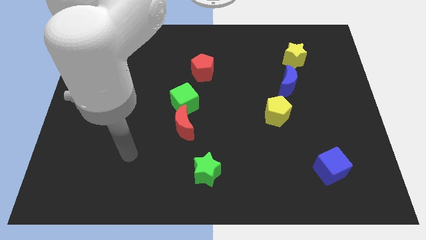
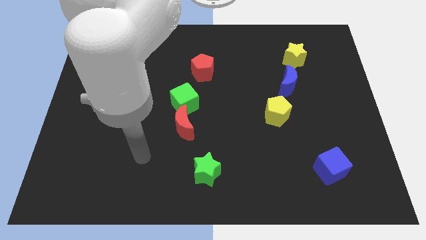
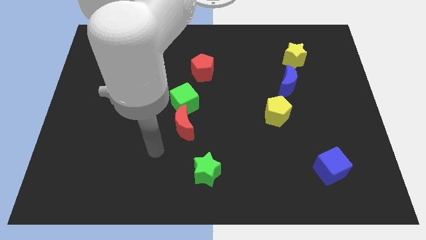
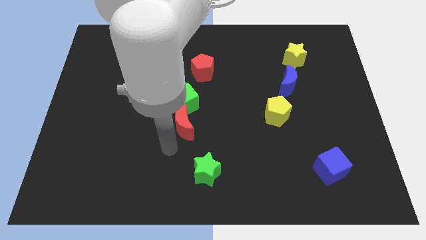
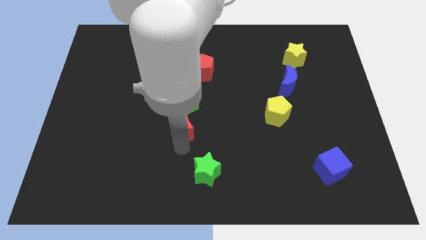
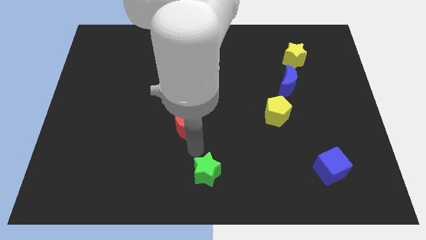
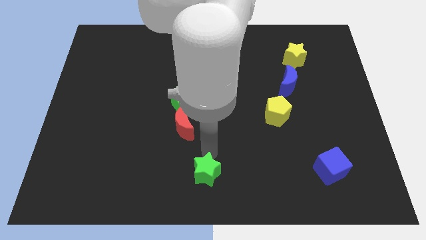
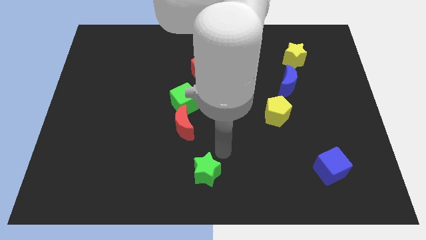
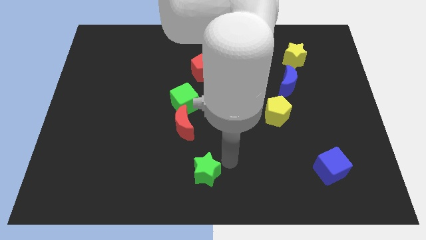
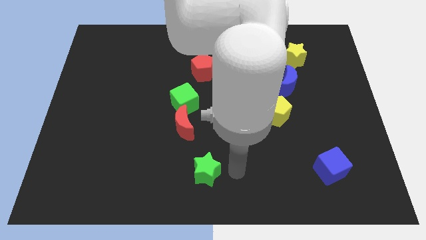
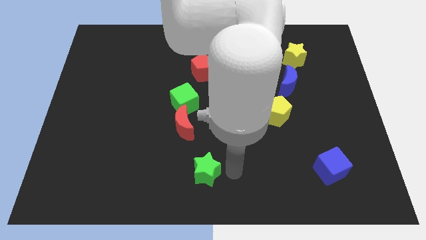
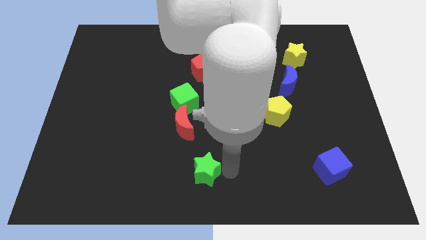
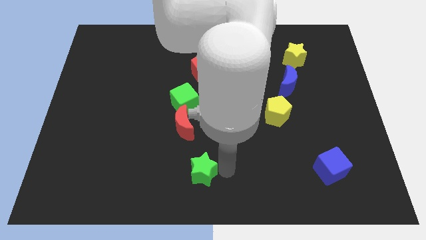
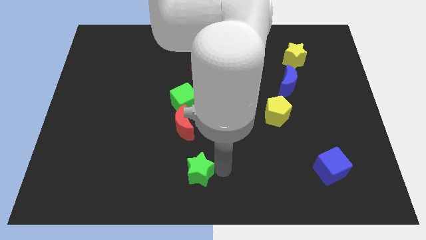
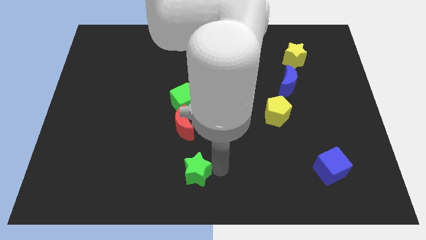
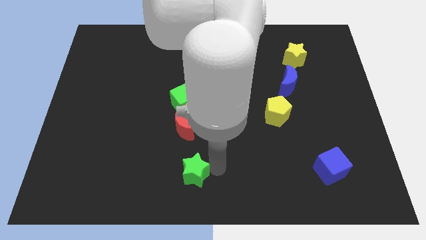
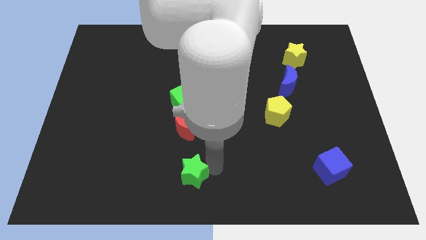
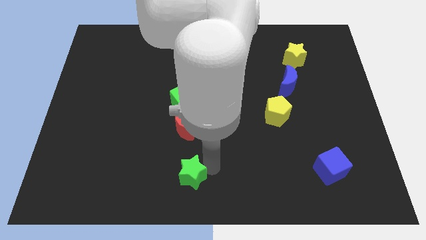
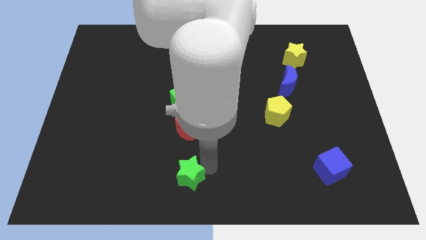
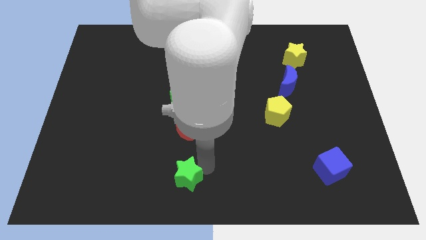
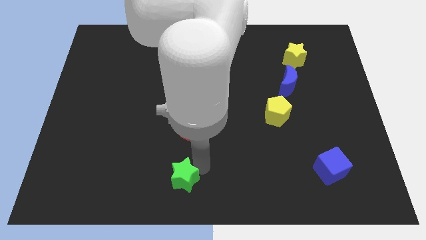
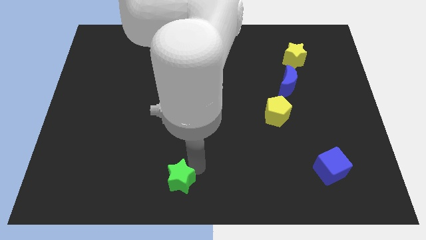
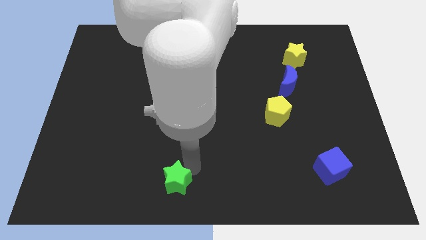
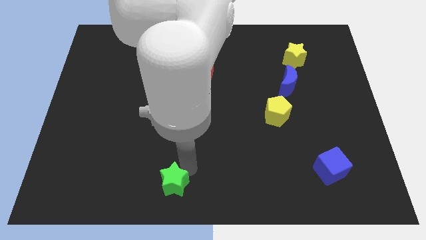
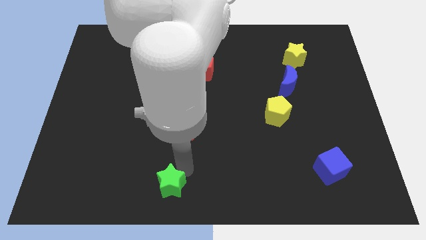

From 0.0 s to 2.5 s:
move the green star somewhat left

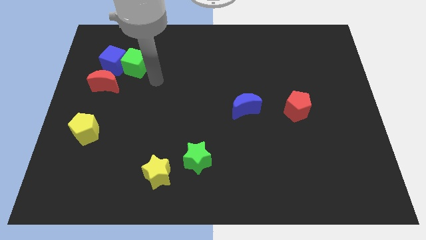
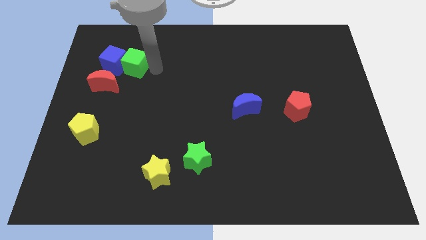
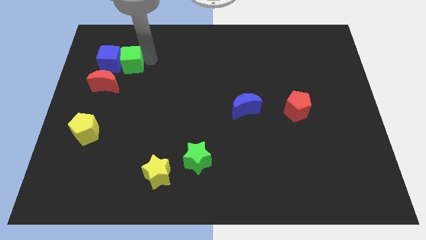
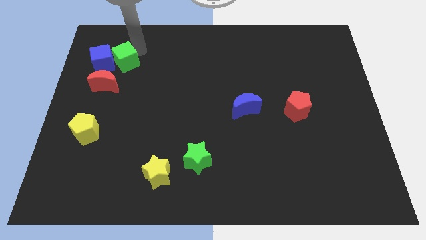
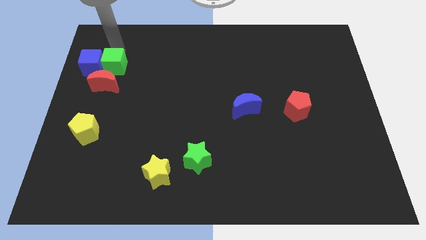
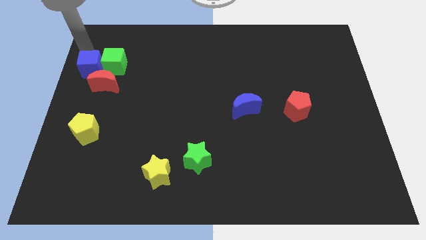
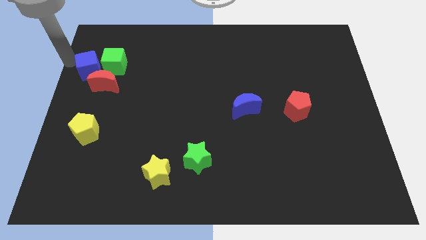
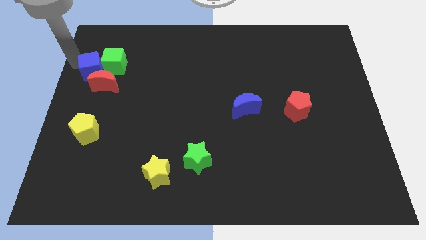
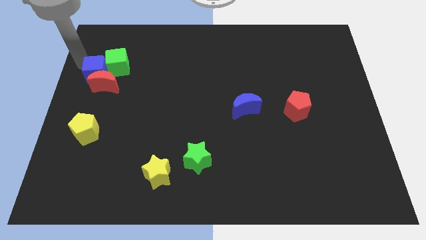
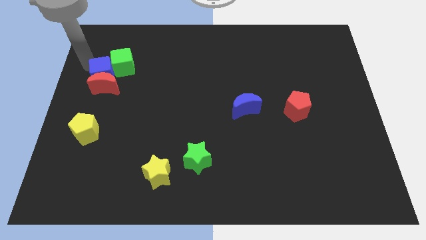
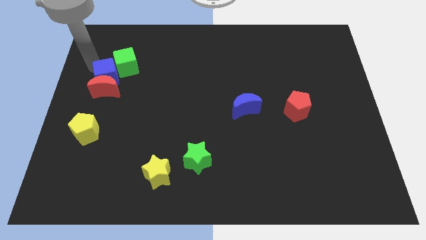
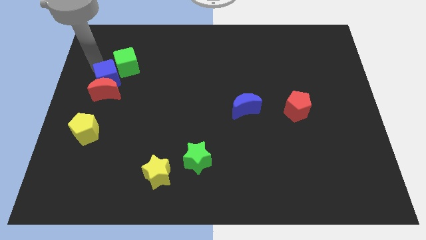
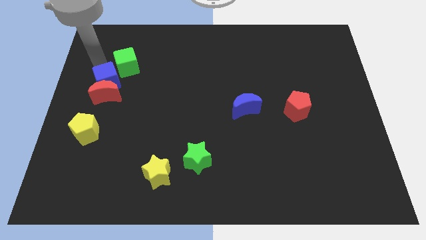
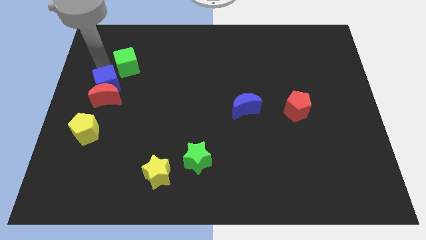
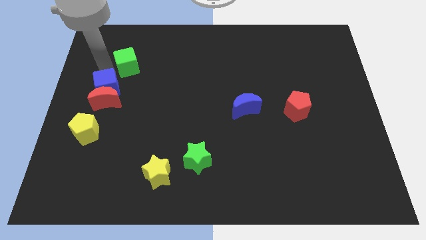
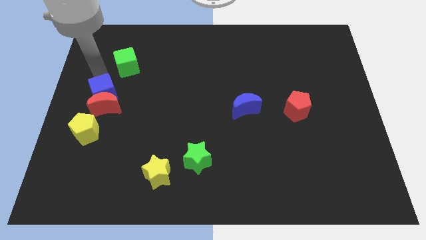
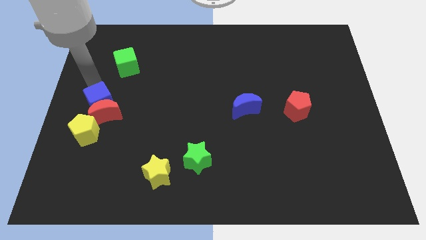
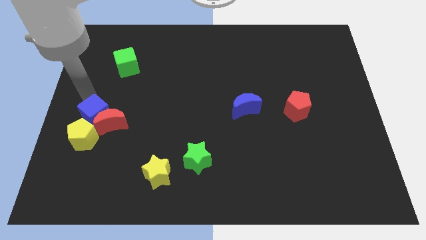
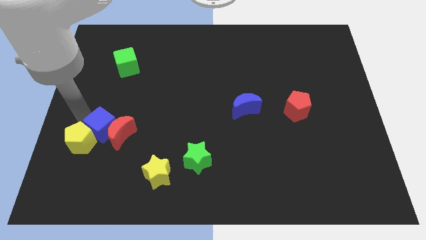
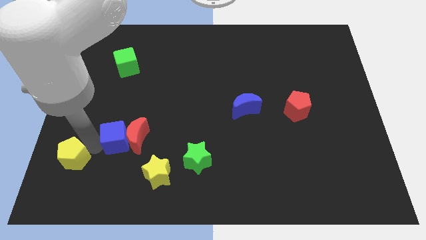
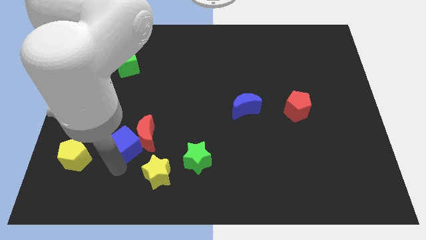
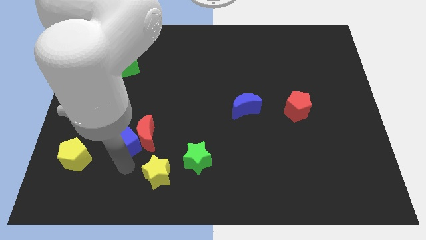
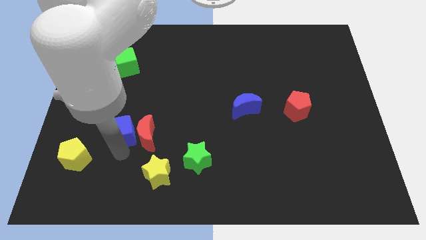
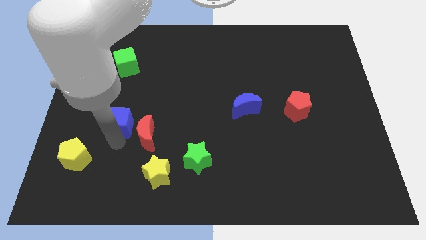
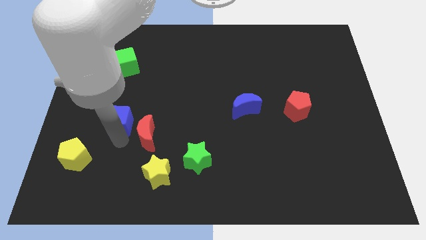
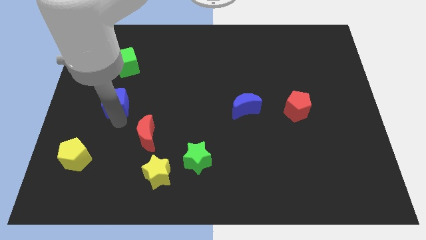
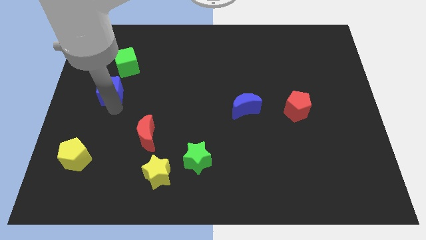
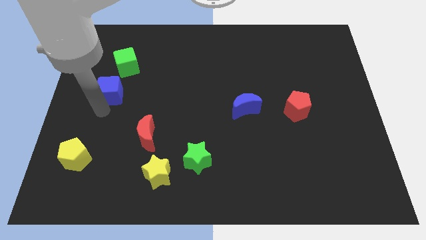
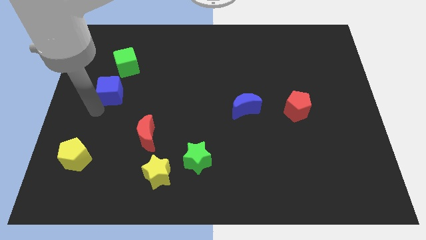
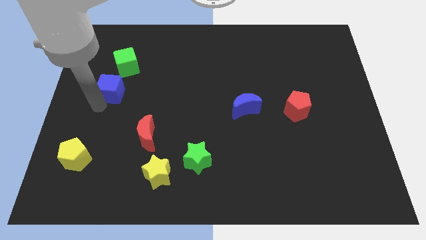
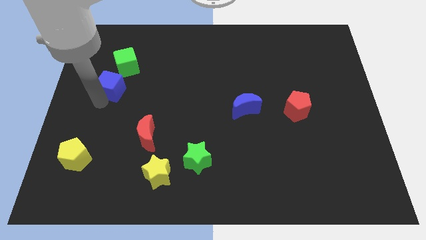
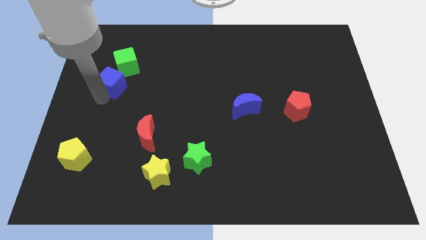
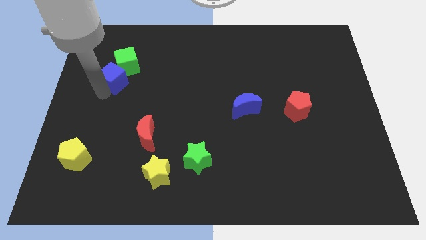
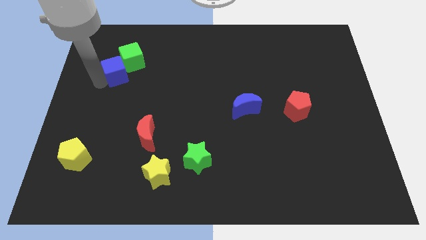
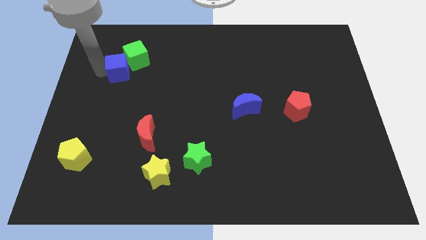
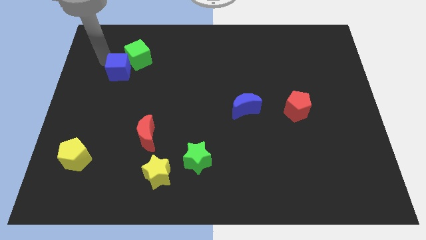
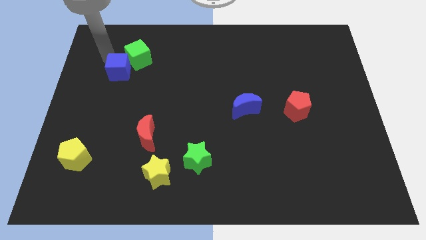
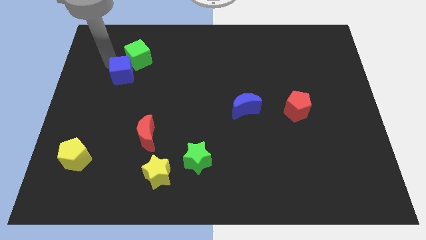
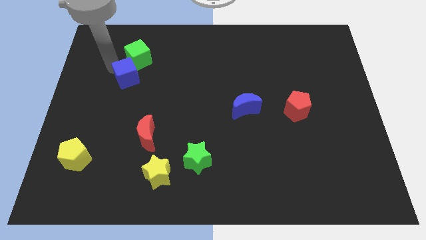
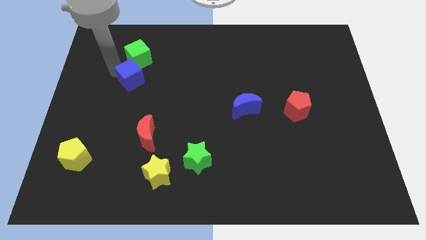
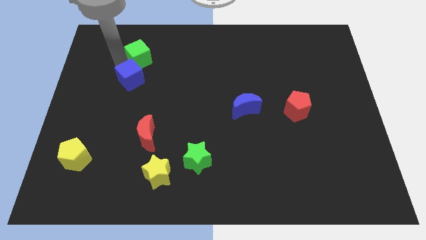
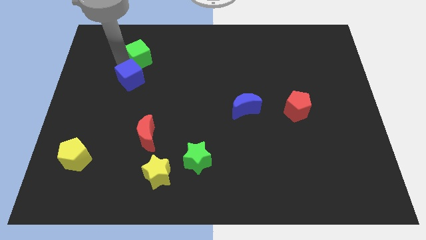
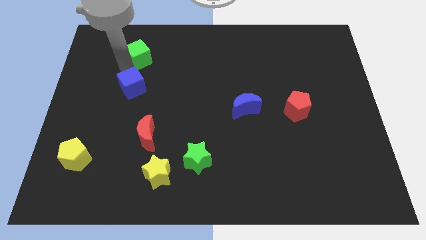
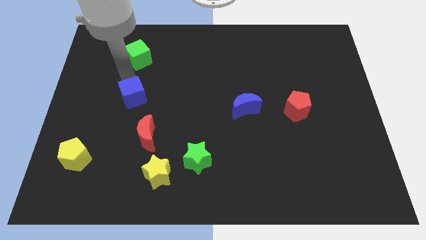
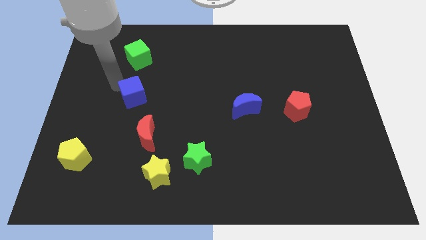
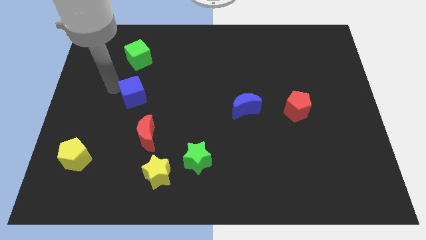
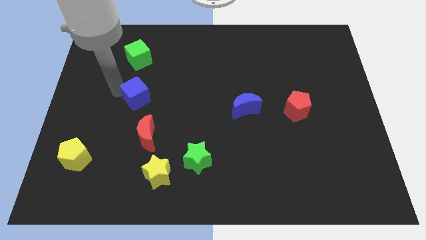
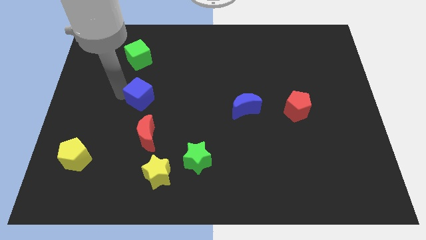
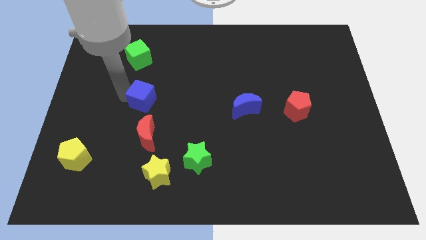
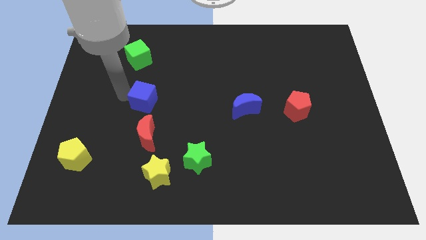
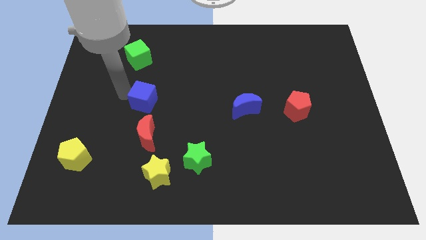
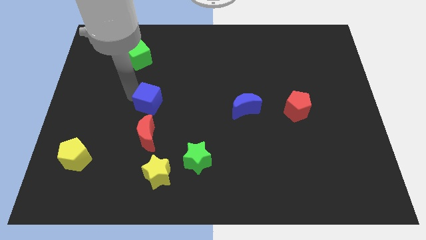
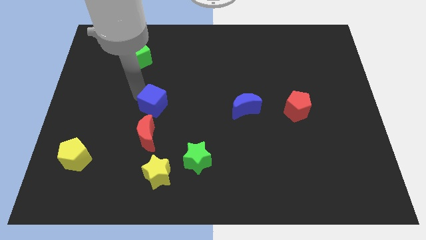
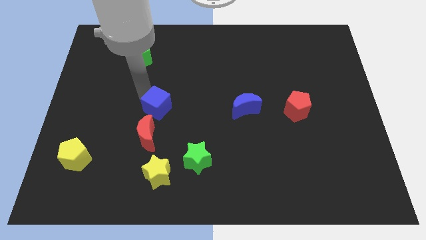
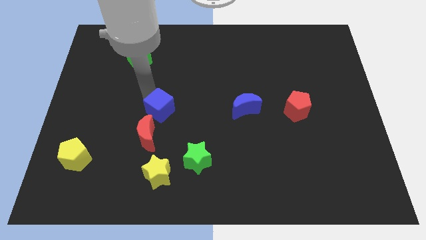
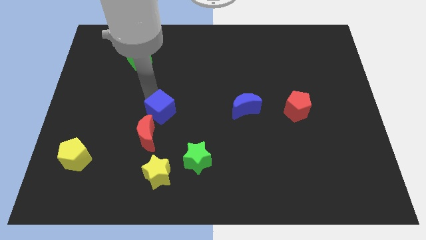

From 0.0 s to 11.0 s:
move the blue cube down and then right
